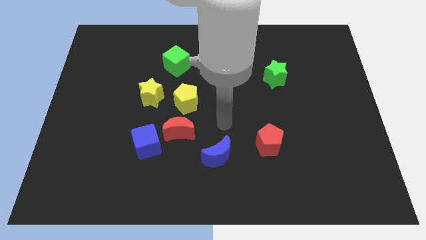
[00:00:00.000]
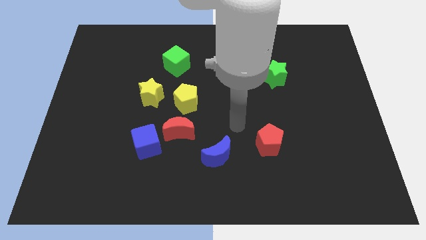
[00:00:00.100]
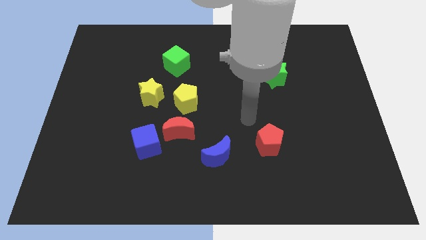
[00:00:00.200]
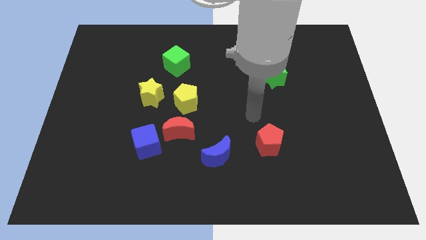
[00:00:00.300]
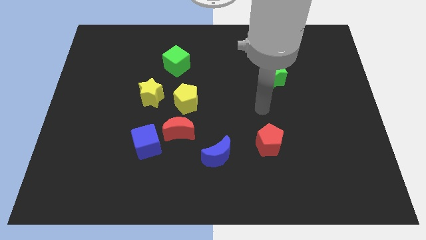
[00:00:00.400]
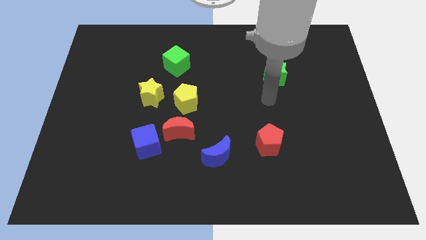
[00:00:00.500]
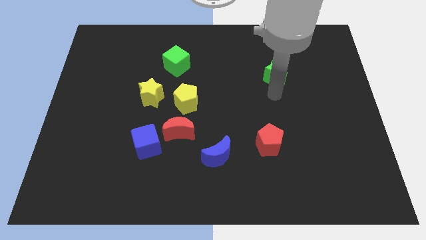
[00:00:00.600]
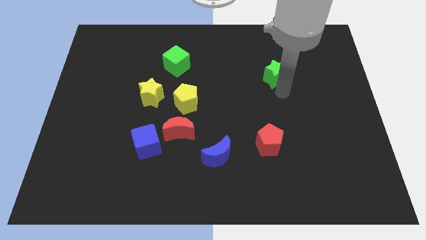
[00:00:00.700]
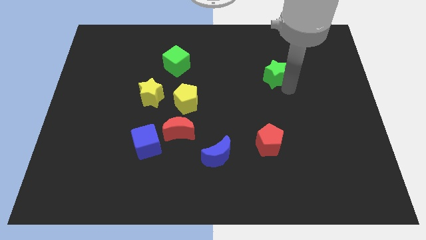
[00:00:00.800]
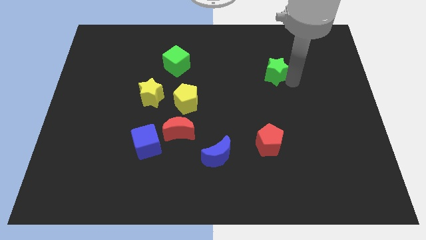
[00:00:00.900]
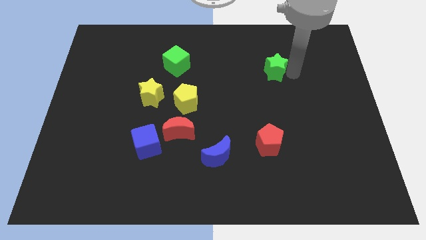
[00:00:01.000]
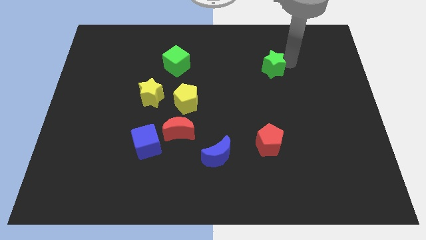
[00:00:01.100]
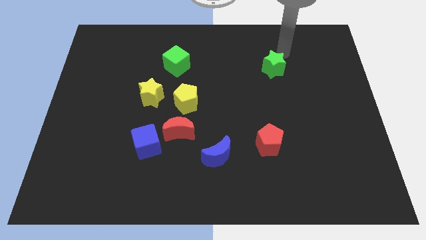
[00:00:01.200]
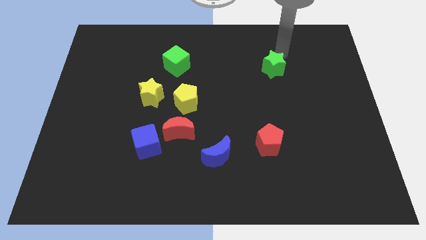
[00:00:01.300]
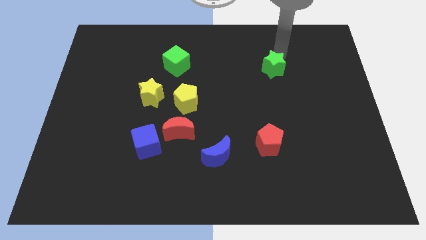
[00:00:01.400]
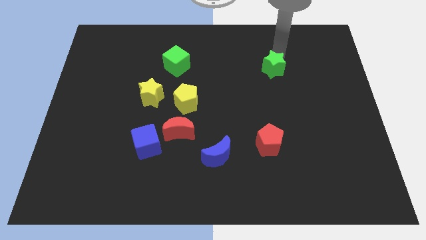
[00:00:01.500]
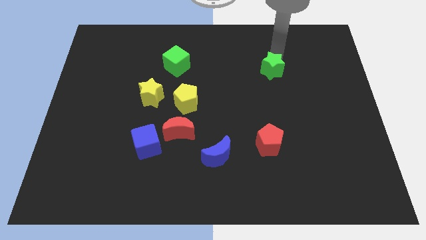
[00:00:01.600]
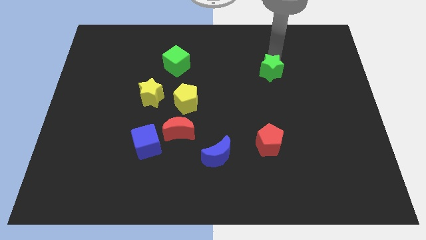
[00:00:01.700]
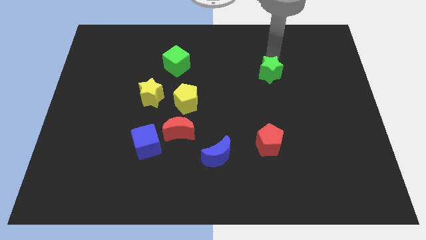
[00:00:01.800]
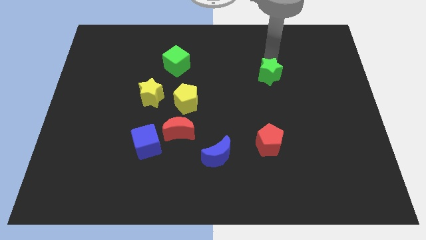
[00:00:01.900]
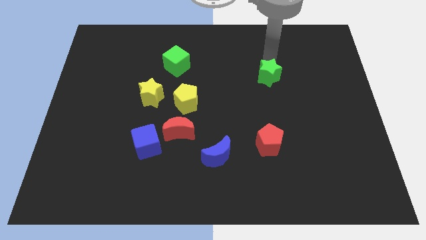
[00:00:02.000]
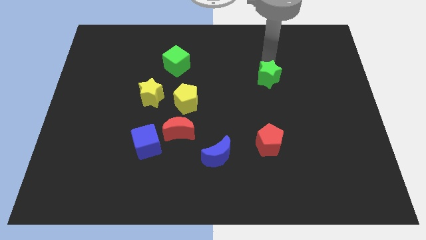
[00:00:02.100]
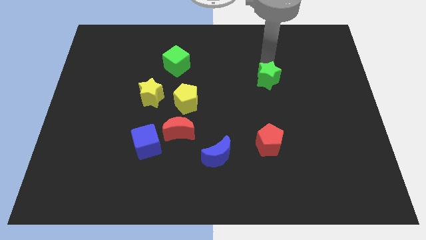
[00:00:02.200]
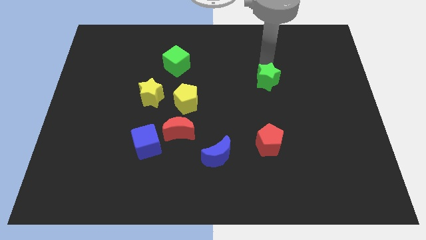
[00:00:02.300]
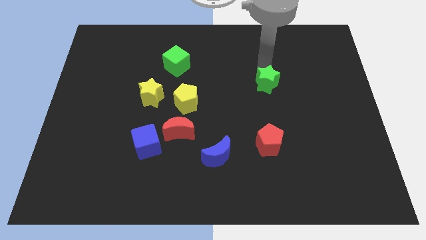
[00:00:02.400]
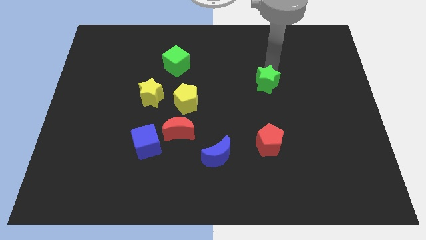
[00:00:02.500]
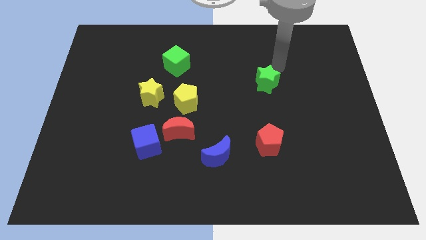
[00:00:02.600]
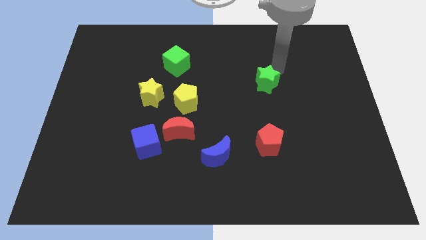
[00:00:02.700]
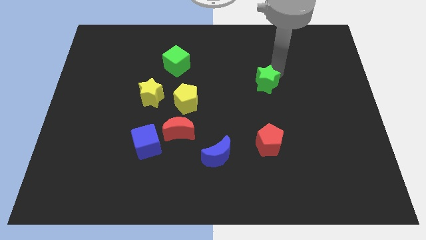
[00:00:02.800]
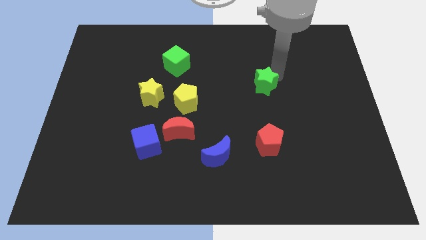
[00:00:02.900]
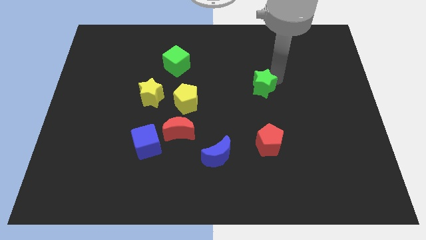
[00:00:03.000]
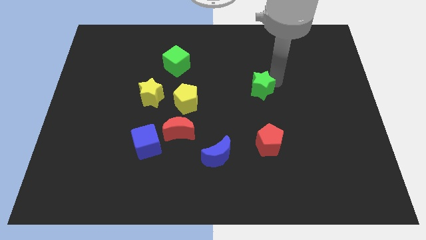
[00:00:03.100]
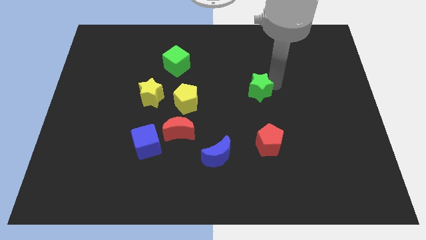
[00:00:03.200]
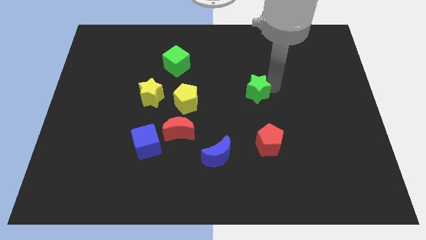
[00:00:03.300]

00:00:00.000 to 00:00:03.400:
move the green star slightly down and to the left diagonally

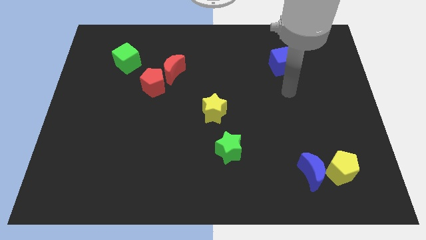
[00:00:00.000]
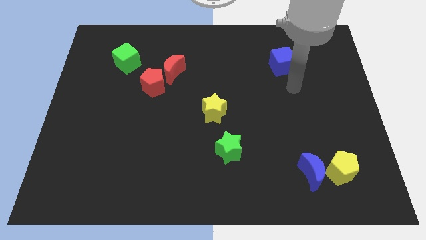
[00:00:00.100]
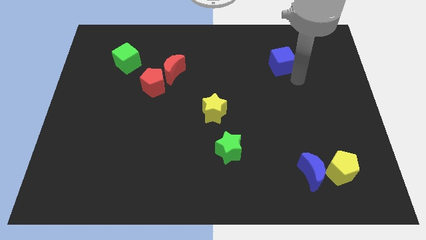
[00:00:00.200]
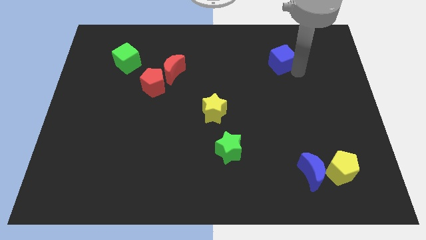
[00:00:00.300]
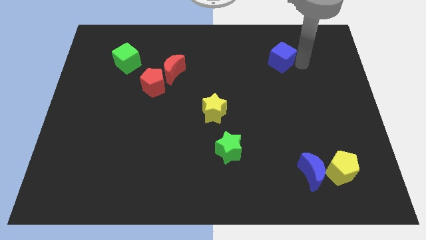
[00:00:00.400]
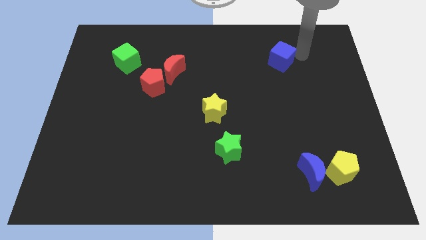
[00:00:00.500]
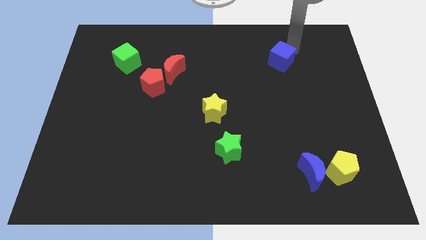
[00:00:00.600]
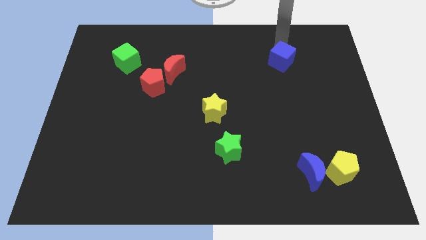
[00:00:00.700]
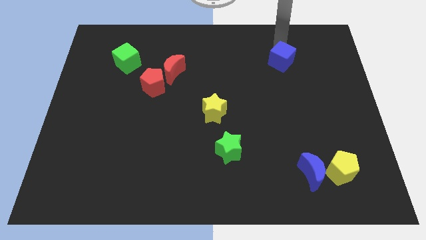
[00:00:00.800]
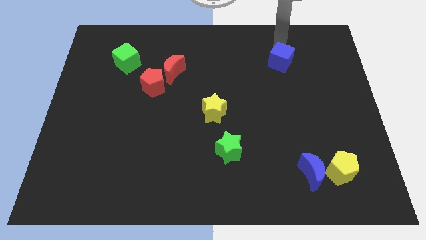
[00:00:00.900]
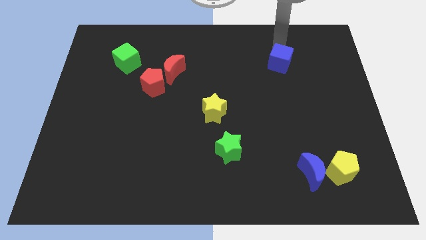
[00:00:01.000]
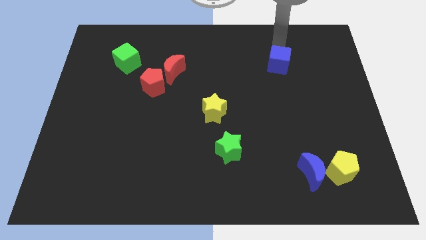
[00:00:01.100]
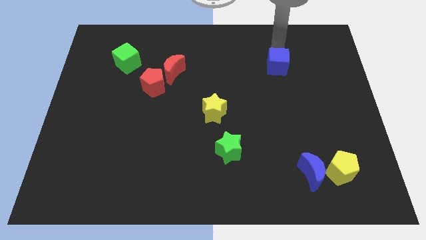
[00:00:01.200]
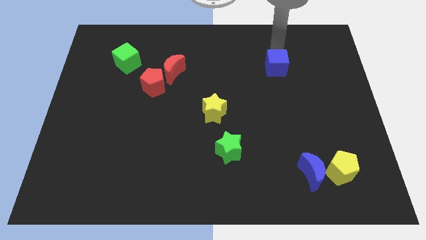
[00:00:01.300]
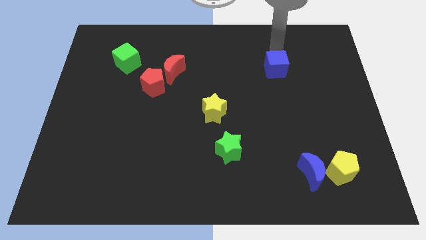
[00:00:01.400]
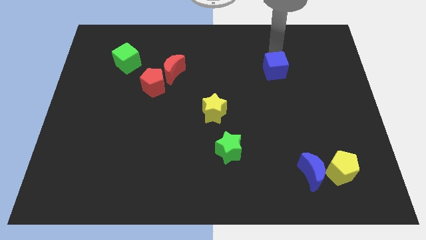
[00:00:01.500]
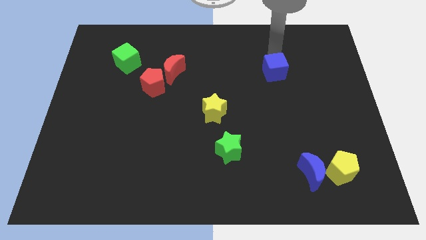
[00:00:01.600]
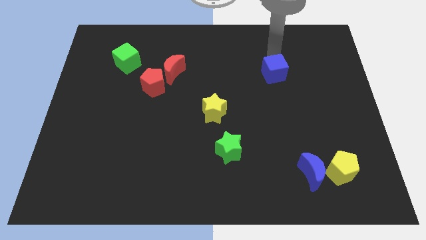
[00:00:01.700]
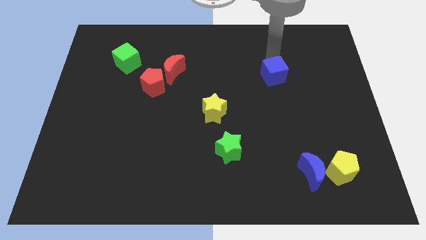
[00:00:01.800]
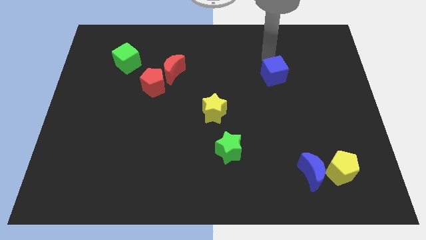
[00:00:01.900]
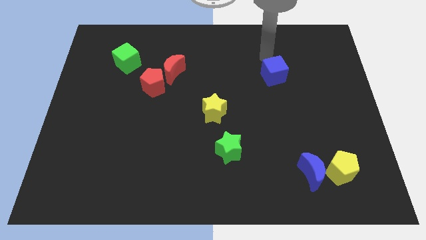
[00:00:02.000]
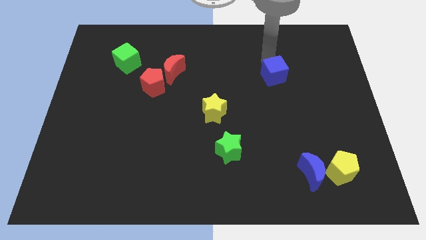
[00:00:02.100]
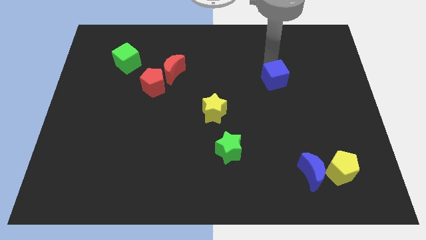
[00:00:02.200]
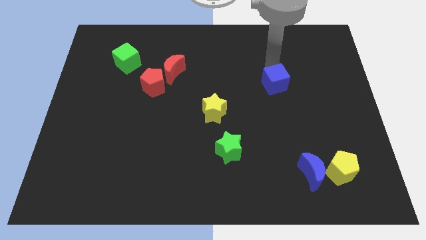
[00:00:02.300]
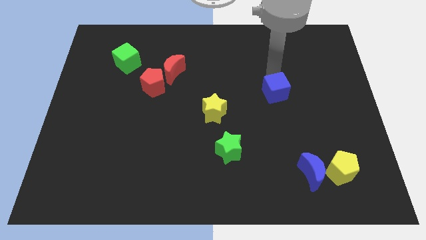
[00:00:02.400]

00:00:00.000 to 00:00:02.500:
push the blue cube downwards slightly

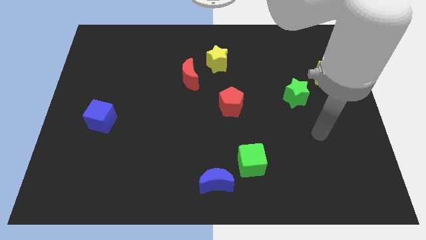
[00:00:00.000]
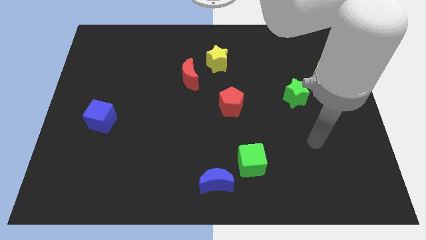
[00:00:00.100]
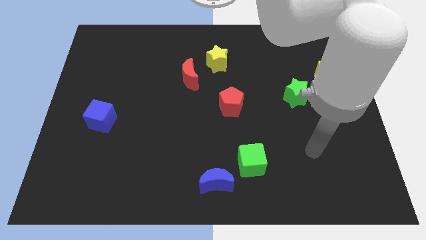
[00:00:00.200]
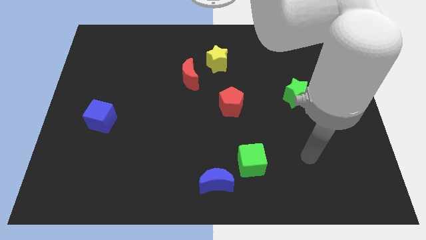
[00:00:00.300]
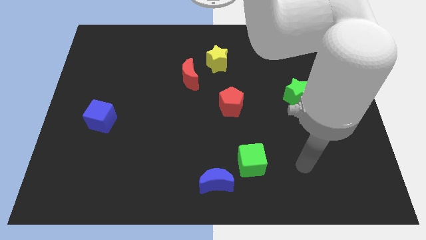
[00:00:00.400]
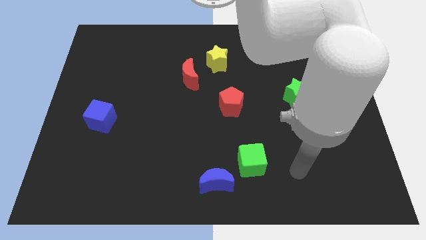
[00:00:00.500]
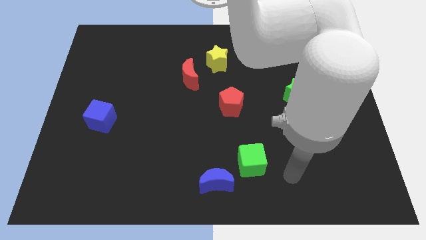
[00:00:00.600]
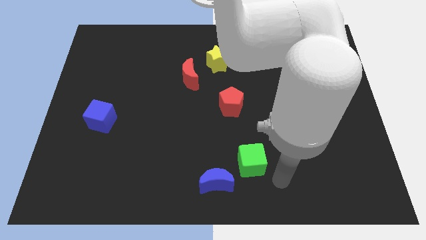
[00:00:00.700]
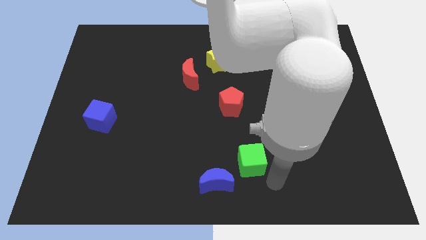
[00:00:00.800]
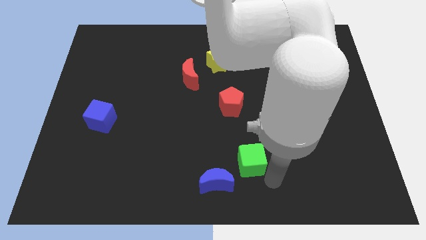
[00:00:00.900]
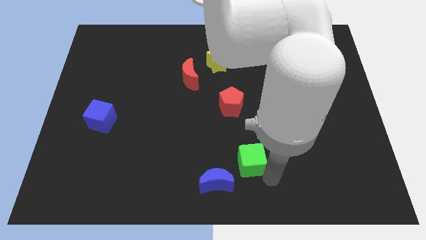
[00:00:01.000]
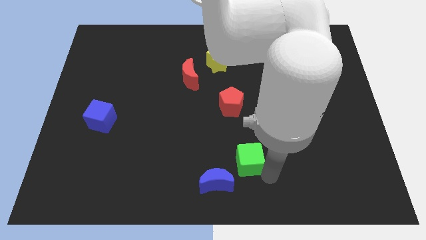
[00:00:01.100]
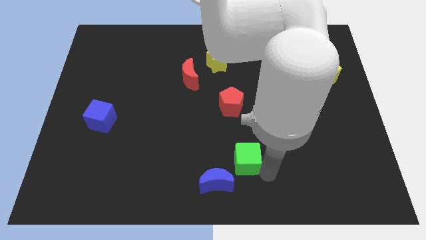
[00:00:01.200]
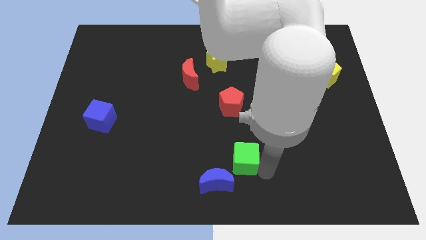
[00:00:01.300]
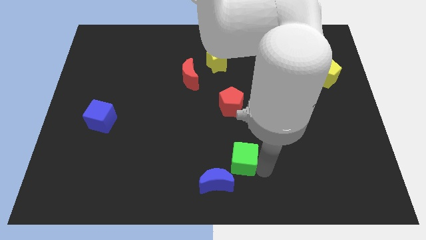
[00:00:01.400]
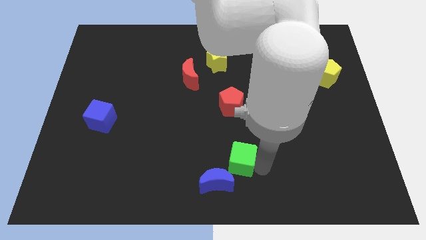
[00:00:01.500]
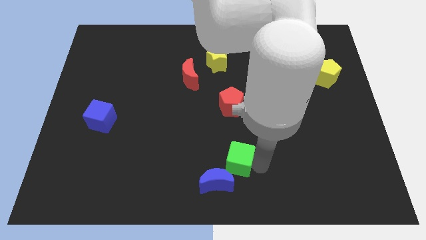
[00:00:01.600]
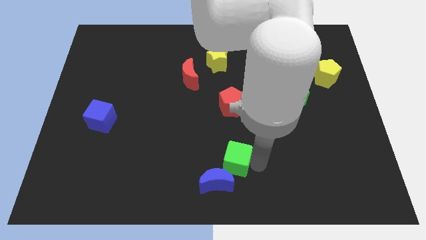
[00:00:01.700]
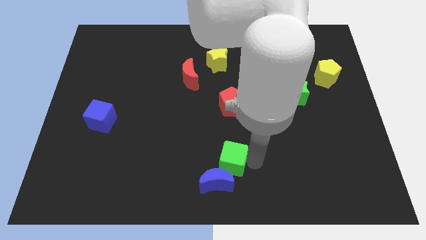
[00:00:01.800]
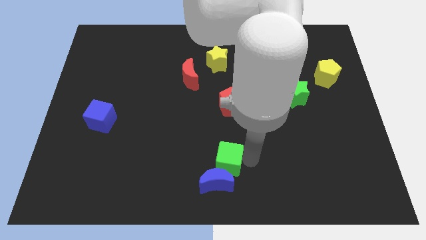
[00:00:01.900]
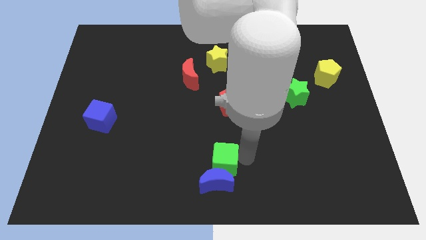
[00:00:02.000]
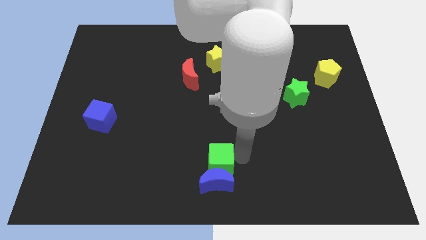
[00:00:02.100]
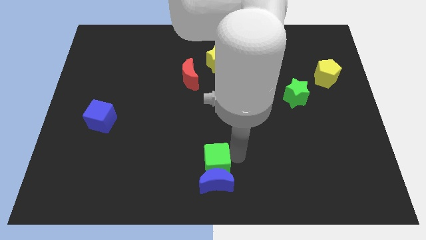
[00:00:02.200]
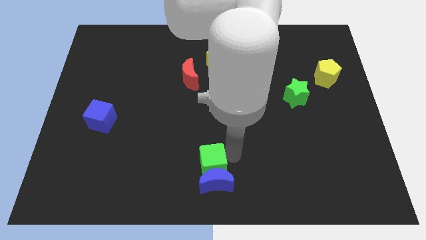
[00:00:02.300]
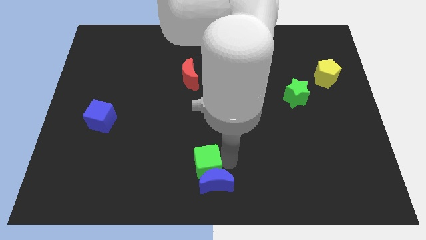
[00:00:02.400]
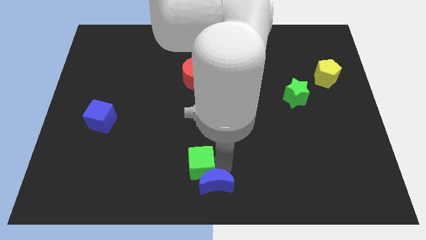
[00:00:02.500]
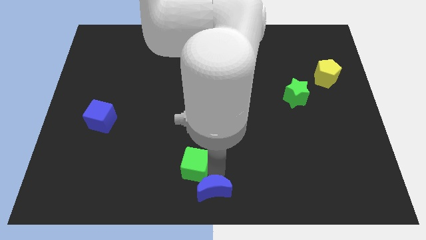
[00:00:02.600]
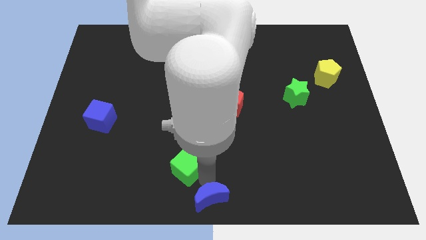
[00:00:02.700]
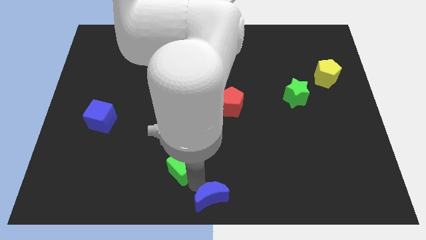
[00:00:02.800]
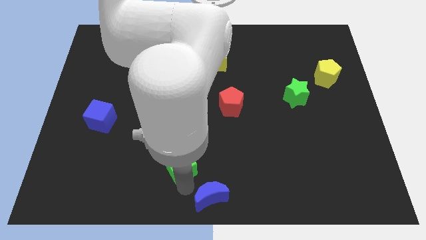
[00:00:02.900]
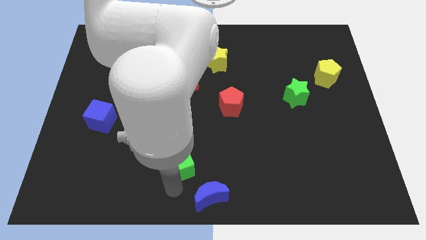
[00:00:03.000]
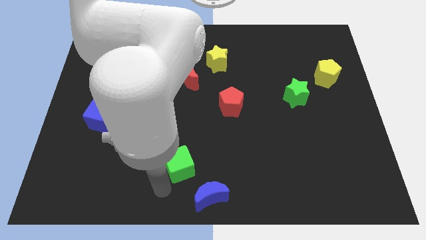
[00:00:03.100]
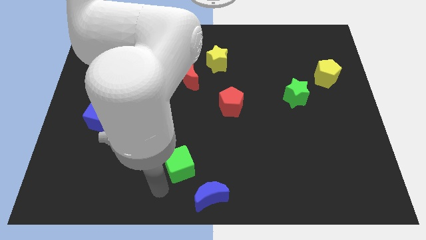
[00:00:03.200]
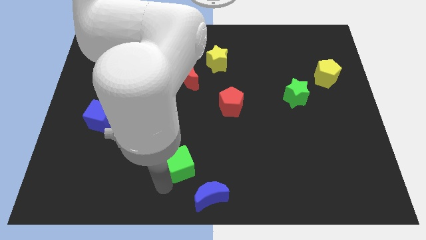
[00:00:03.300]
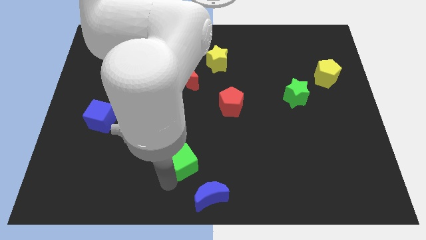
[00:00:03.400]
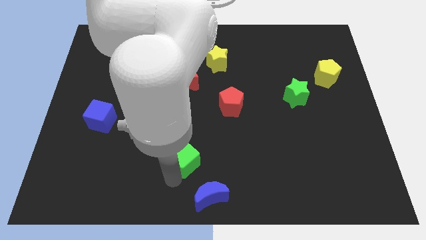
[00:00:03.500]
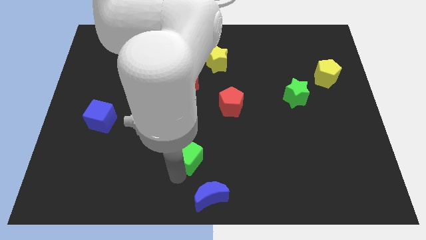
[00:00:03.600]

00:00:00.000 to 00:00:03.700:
slide the green cube upwards and left a bit
